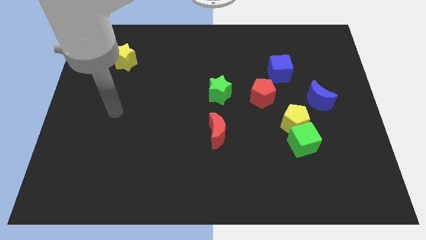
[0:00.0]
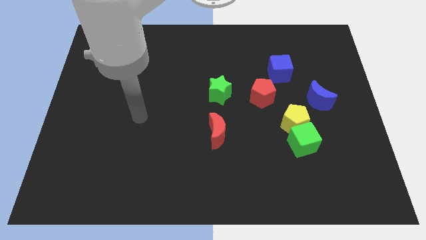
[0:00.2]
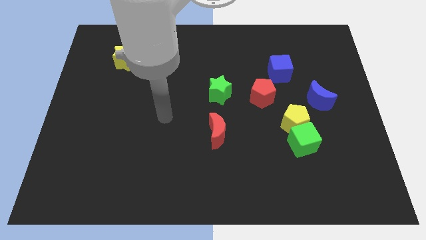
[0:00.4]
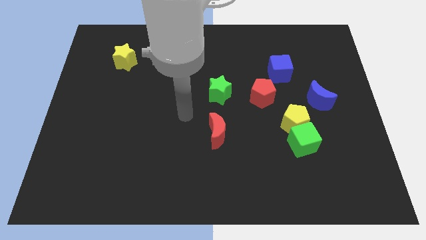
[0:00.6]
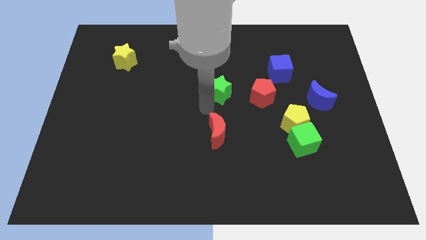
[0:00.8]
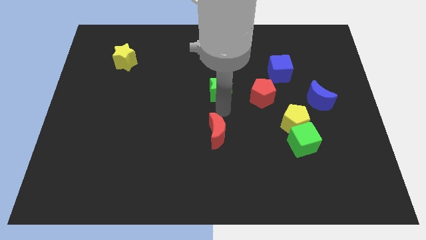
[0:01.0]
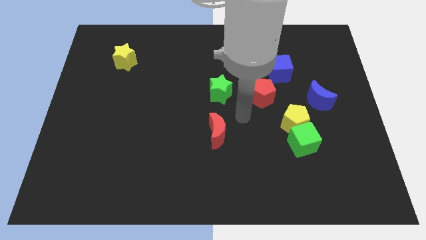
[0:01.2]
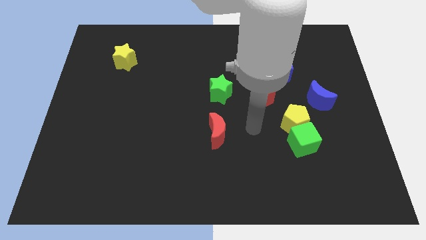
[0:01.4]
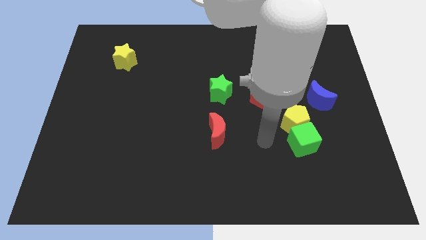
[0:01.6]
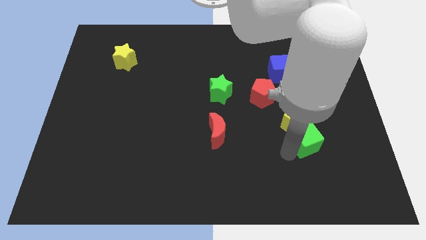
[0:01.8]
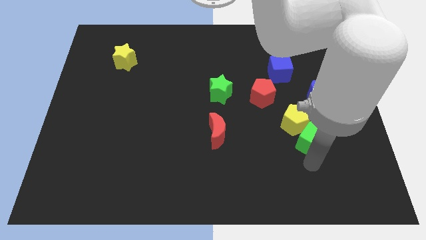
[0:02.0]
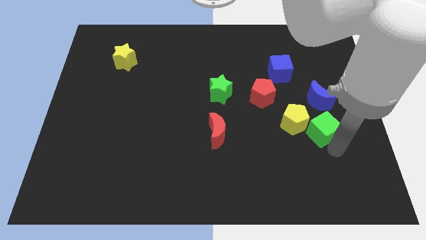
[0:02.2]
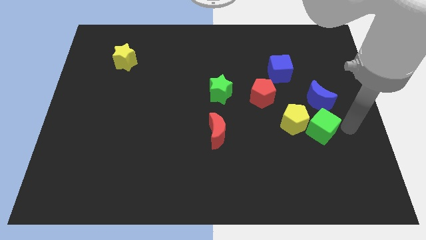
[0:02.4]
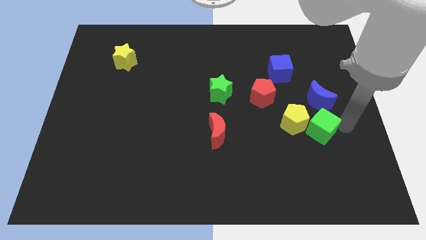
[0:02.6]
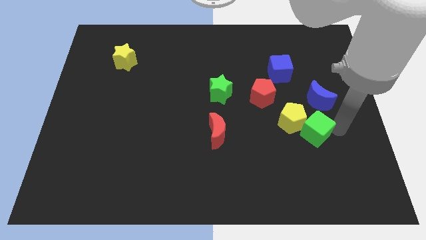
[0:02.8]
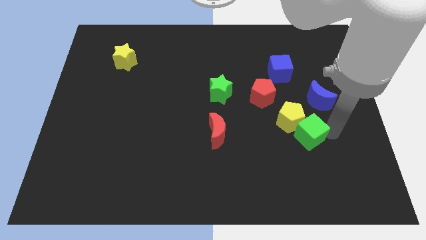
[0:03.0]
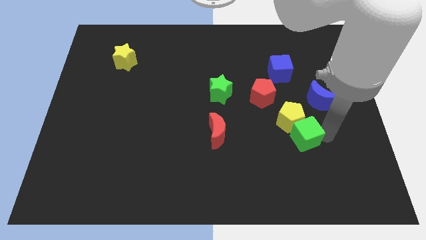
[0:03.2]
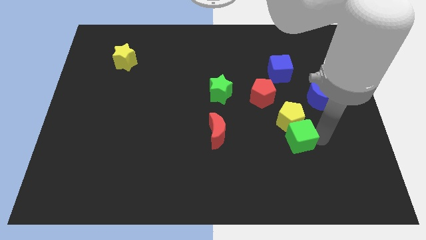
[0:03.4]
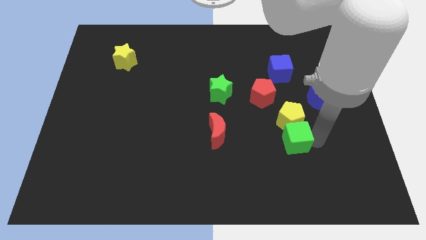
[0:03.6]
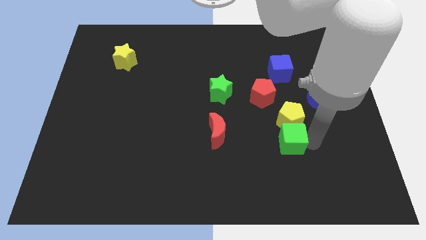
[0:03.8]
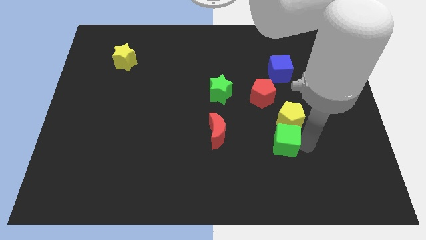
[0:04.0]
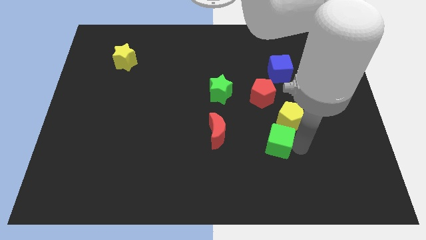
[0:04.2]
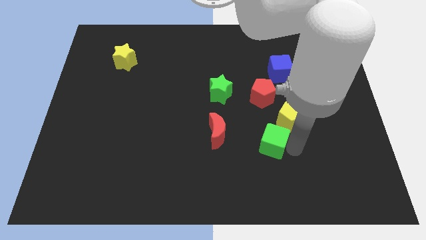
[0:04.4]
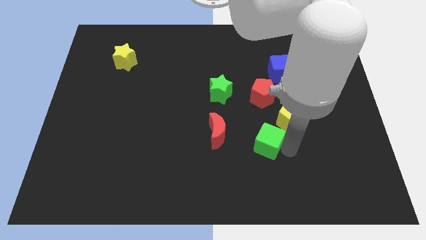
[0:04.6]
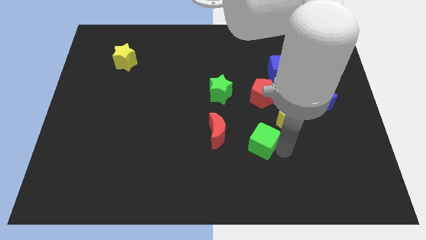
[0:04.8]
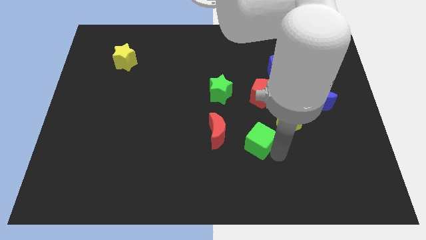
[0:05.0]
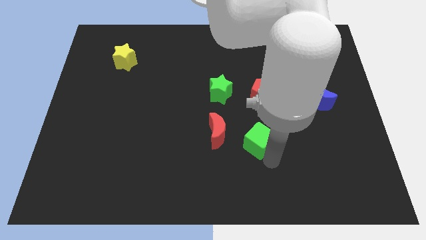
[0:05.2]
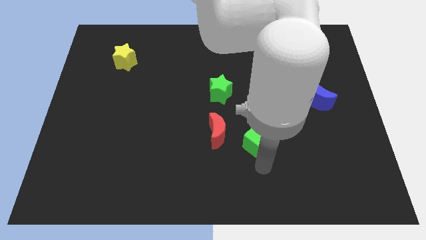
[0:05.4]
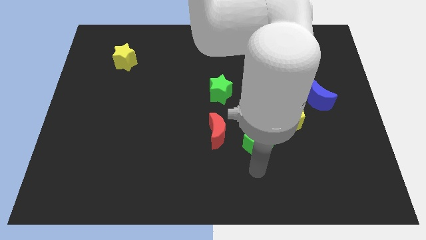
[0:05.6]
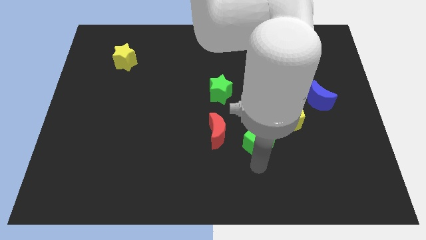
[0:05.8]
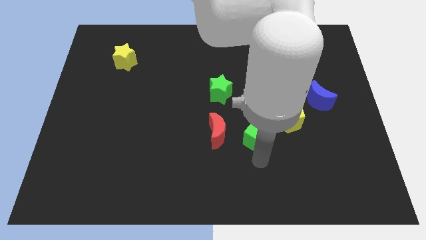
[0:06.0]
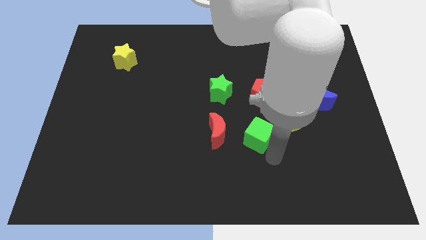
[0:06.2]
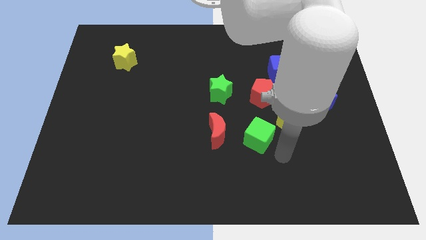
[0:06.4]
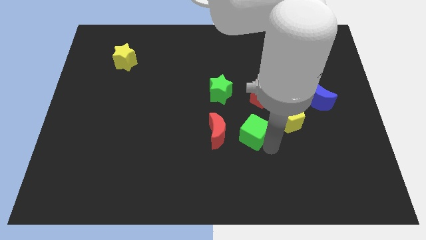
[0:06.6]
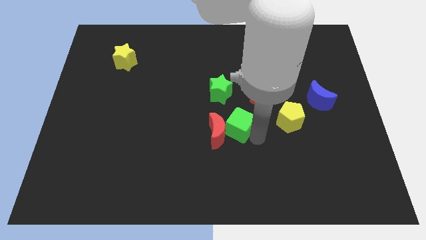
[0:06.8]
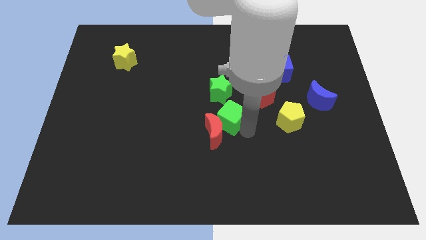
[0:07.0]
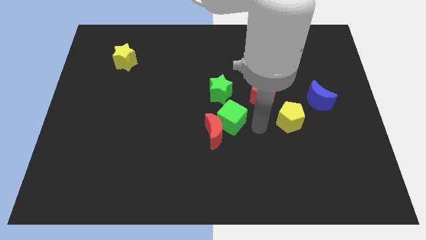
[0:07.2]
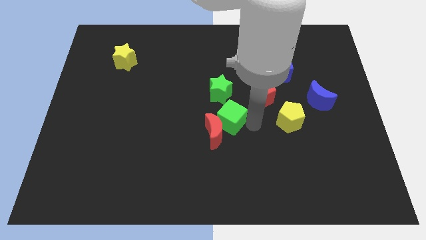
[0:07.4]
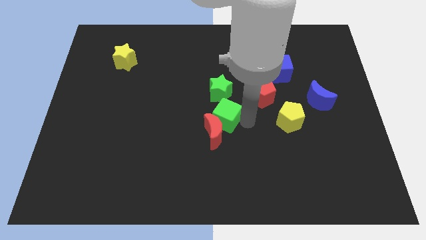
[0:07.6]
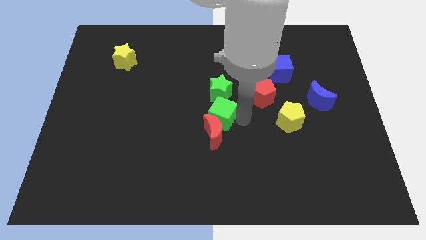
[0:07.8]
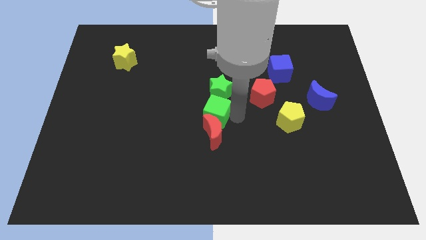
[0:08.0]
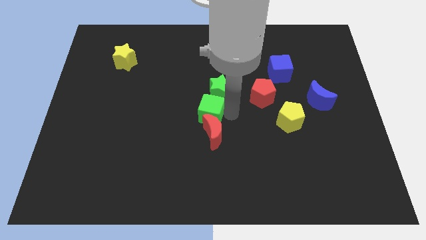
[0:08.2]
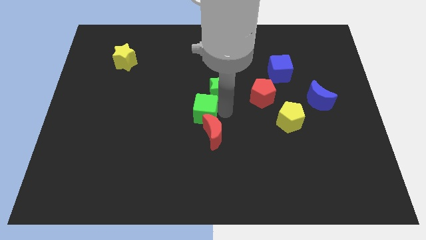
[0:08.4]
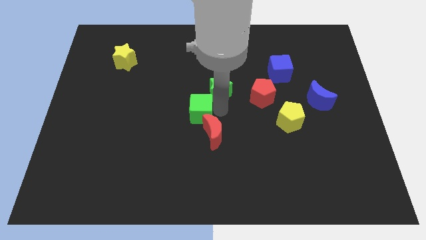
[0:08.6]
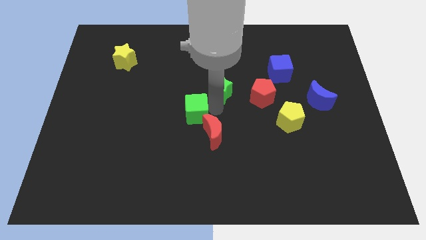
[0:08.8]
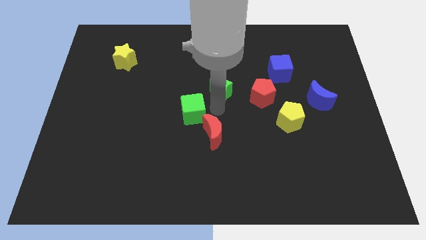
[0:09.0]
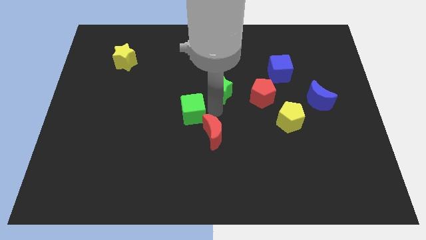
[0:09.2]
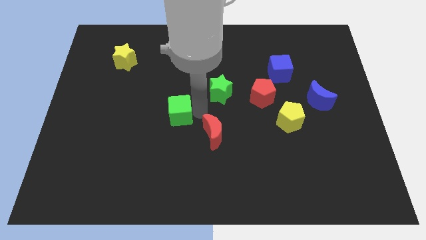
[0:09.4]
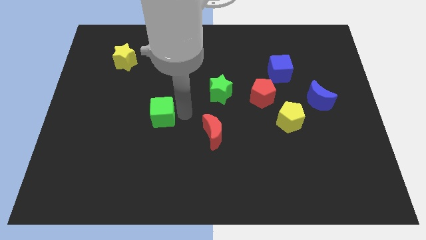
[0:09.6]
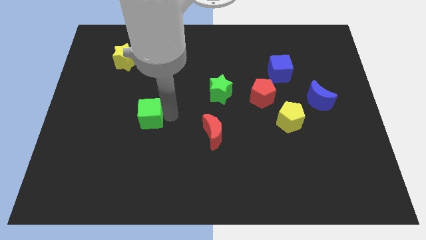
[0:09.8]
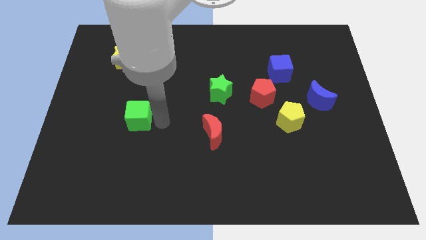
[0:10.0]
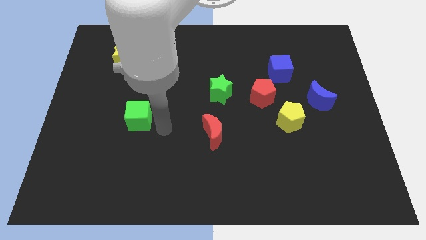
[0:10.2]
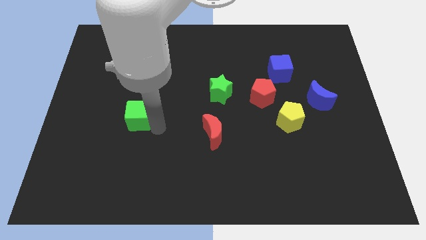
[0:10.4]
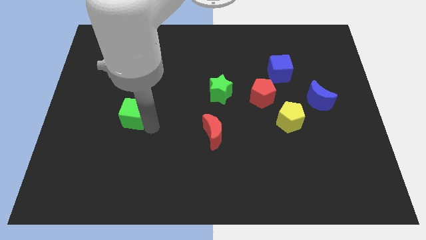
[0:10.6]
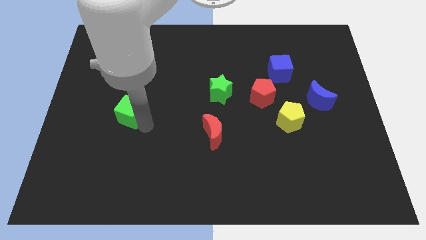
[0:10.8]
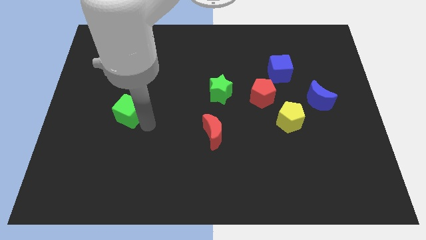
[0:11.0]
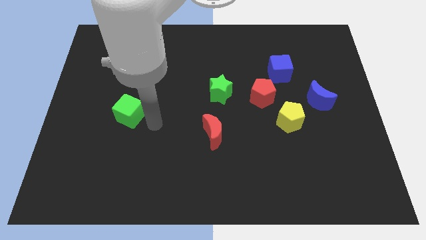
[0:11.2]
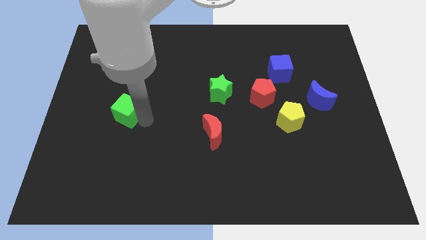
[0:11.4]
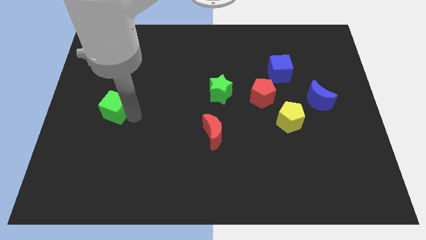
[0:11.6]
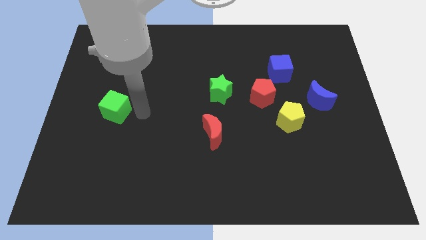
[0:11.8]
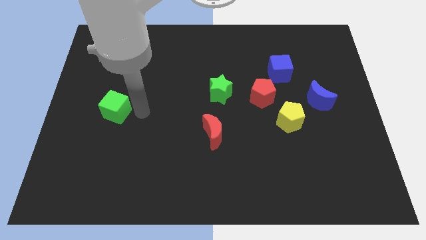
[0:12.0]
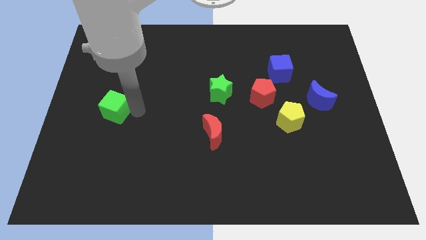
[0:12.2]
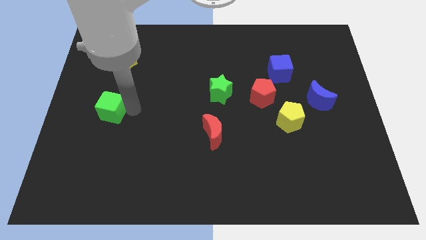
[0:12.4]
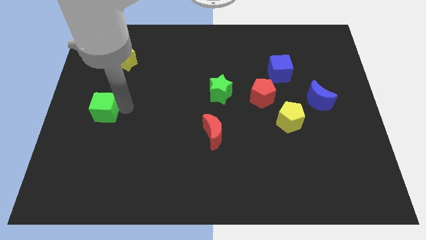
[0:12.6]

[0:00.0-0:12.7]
move the green cube to the left side
